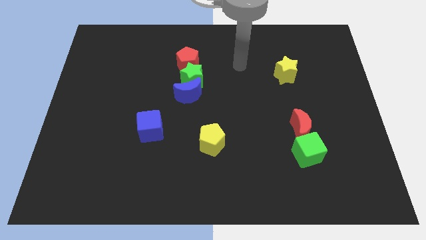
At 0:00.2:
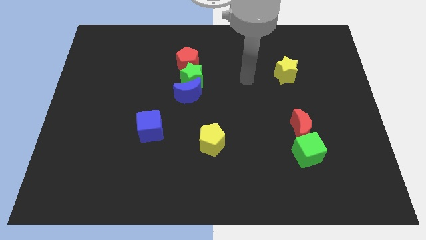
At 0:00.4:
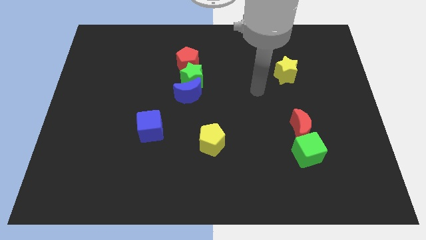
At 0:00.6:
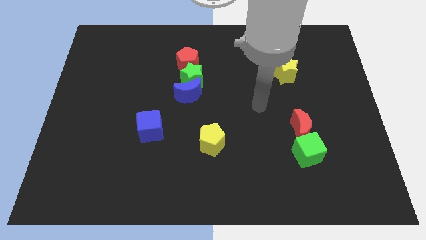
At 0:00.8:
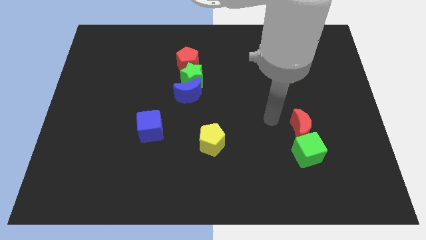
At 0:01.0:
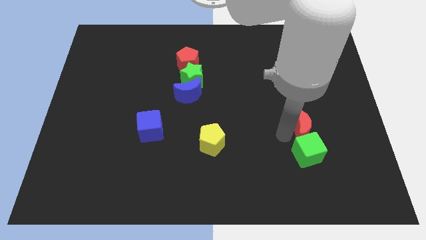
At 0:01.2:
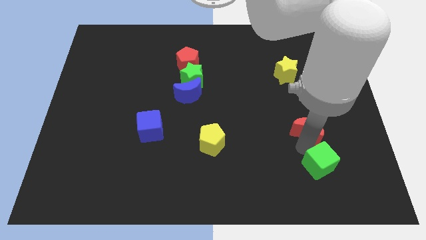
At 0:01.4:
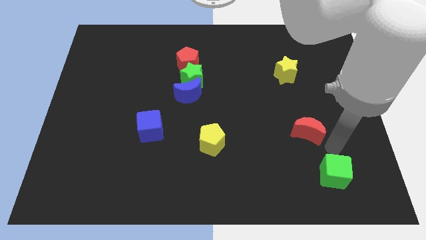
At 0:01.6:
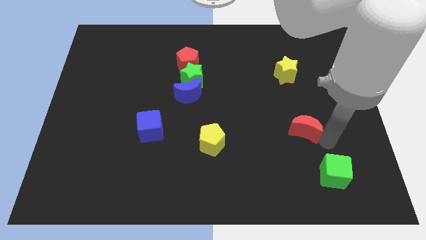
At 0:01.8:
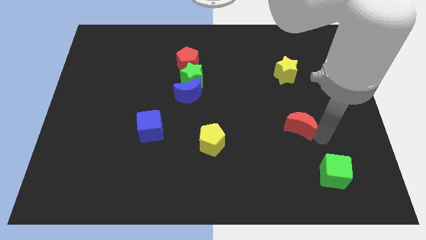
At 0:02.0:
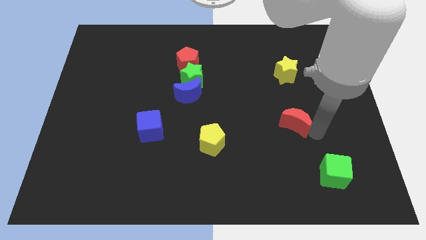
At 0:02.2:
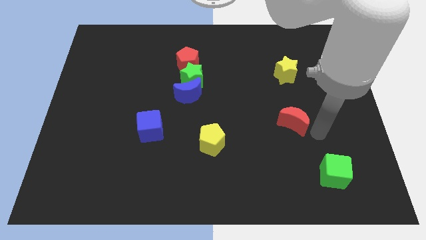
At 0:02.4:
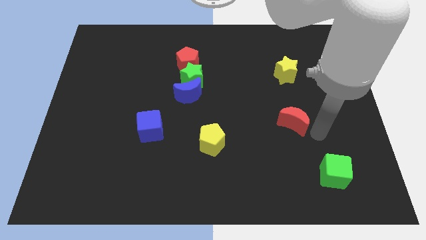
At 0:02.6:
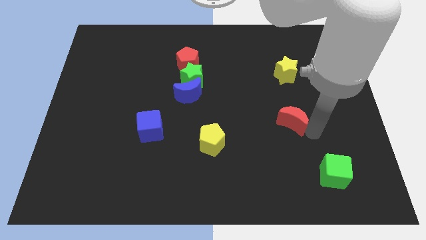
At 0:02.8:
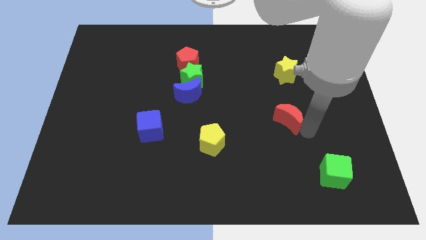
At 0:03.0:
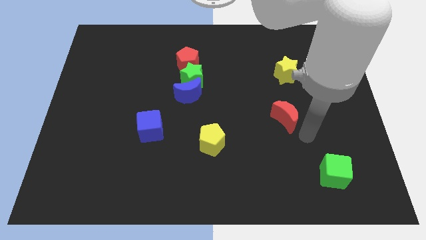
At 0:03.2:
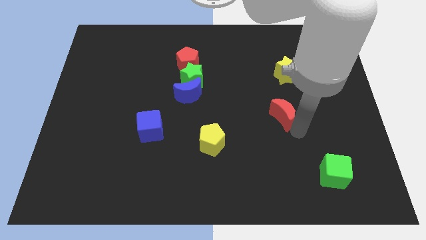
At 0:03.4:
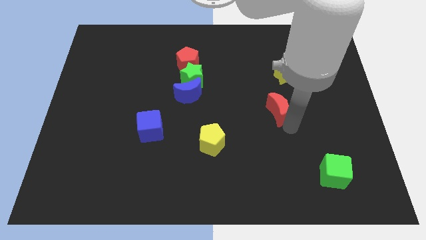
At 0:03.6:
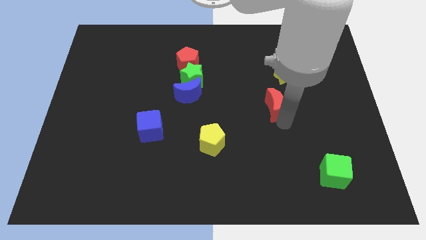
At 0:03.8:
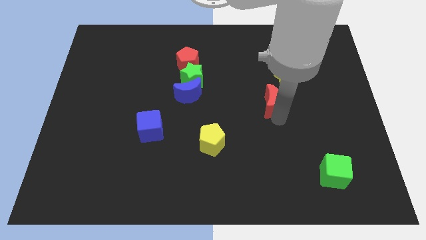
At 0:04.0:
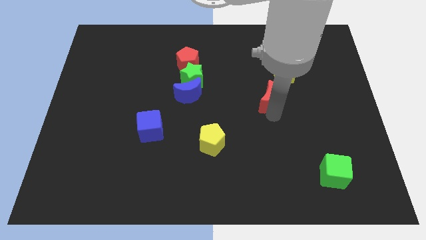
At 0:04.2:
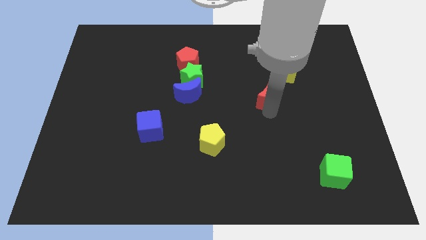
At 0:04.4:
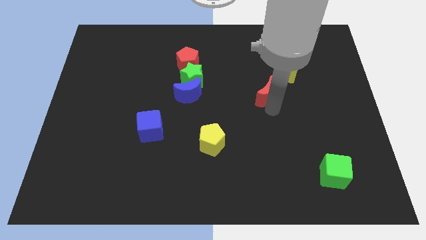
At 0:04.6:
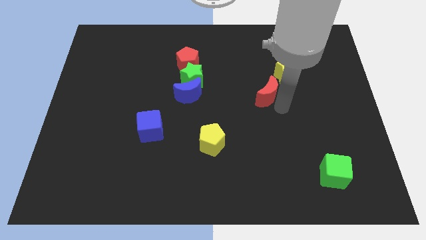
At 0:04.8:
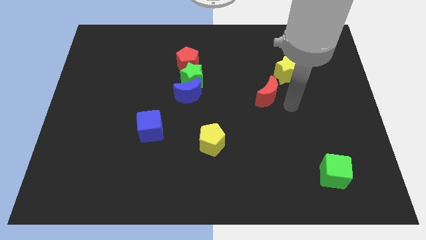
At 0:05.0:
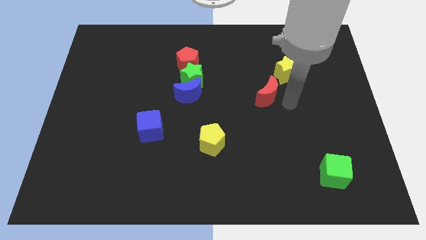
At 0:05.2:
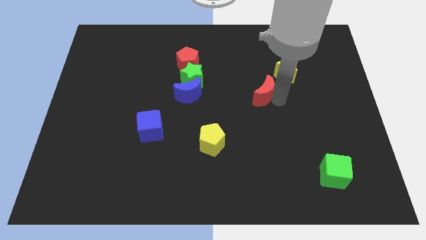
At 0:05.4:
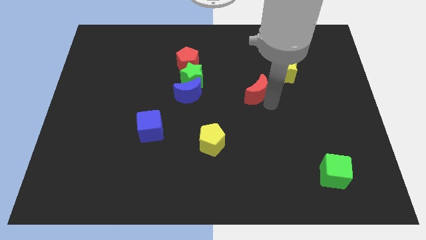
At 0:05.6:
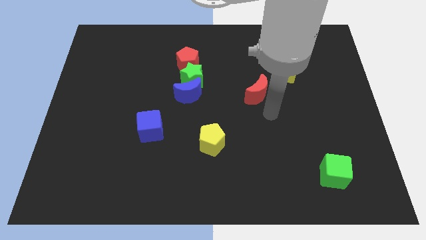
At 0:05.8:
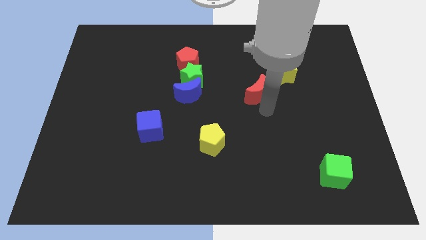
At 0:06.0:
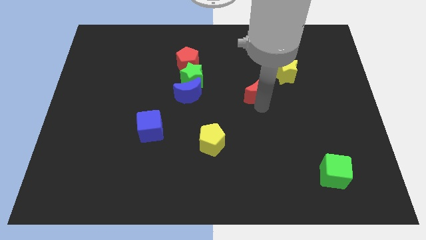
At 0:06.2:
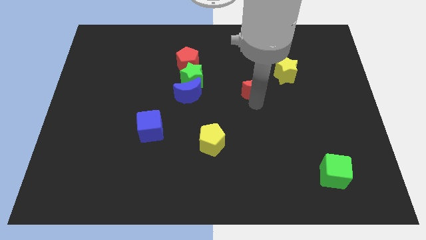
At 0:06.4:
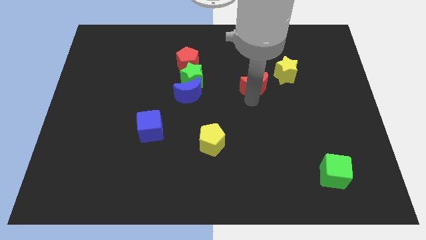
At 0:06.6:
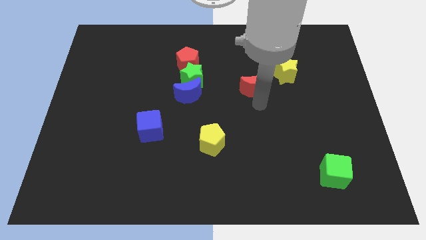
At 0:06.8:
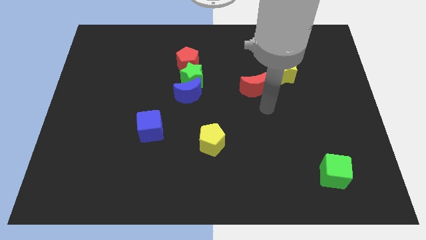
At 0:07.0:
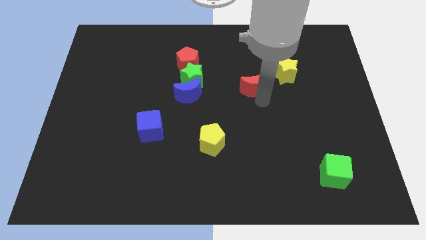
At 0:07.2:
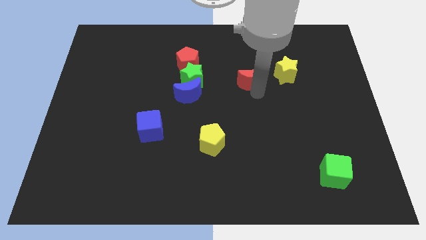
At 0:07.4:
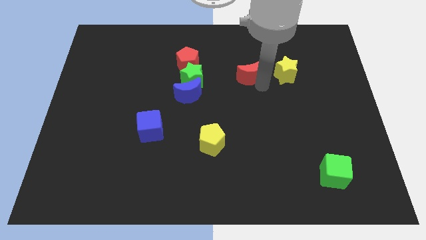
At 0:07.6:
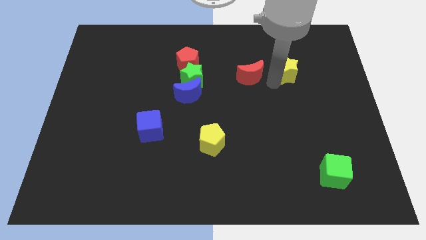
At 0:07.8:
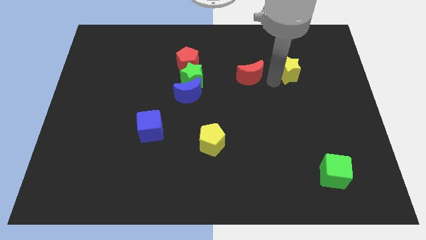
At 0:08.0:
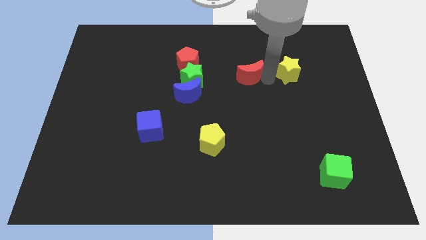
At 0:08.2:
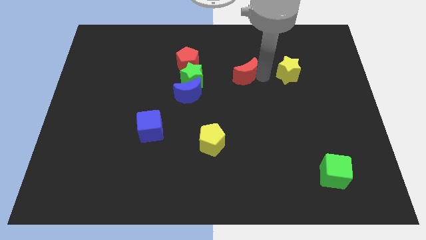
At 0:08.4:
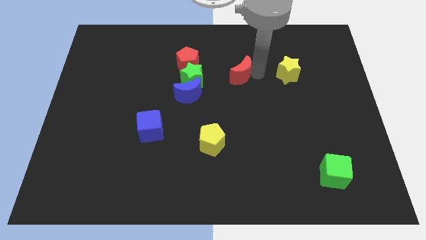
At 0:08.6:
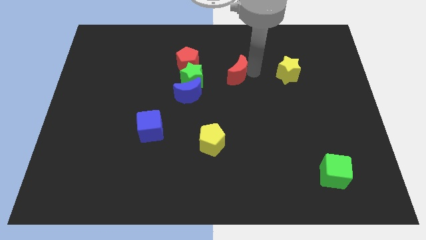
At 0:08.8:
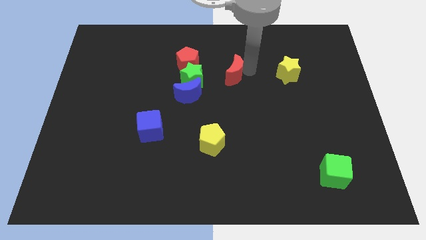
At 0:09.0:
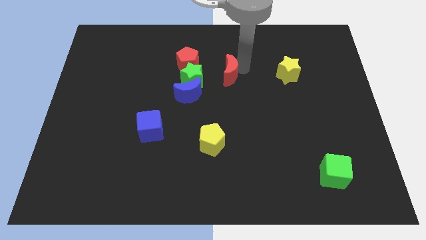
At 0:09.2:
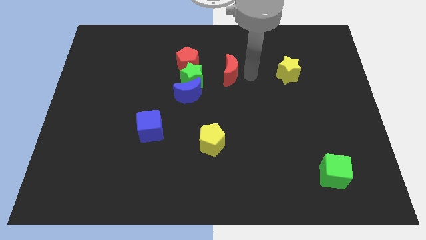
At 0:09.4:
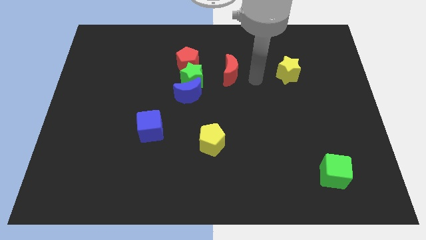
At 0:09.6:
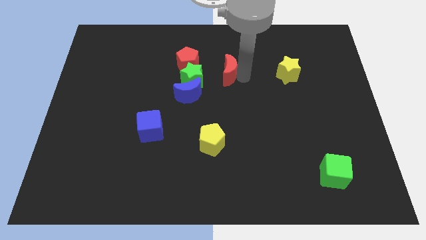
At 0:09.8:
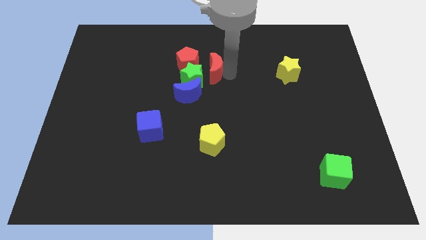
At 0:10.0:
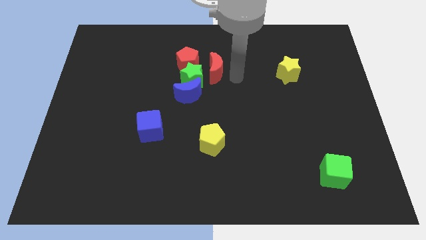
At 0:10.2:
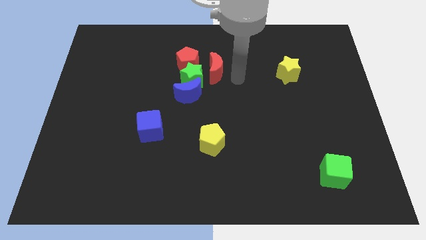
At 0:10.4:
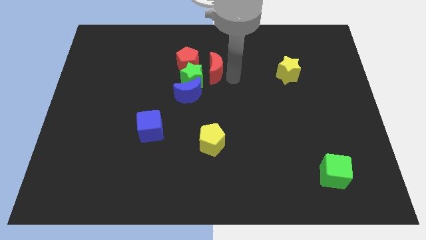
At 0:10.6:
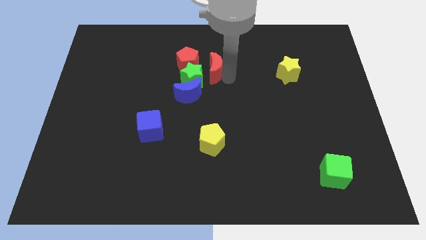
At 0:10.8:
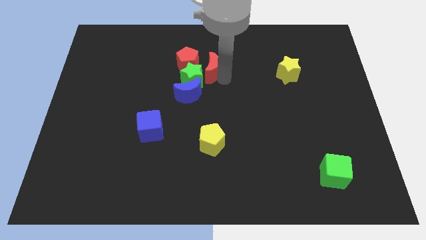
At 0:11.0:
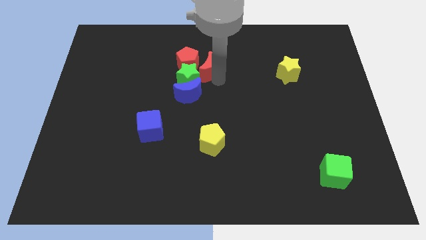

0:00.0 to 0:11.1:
move the red moon towards the red pentagon

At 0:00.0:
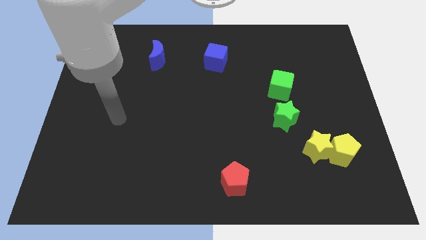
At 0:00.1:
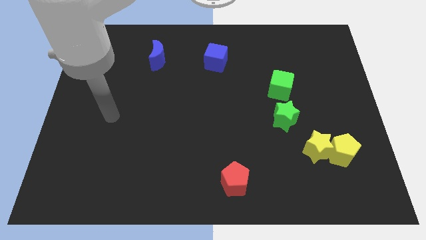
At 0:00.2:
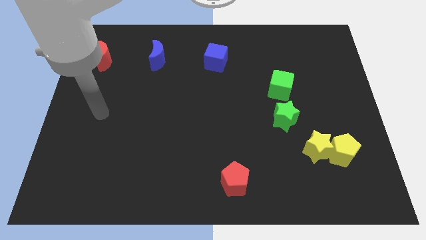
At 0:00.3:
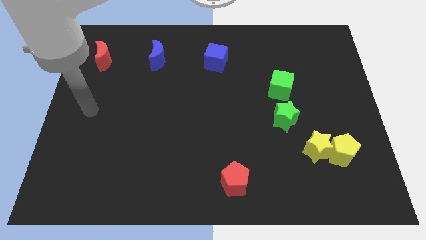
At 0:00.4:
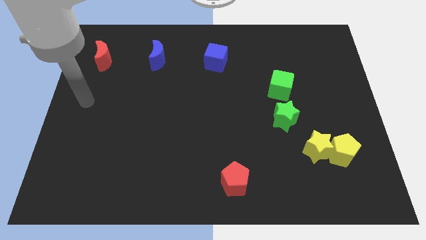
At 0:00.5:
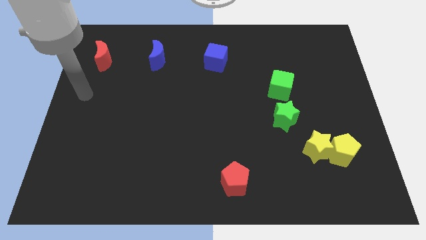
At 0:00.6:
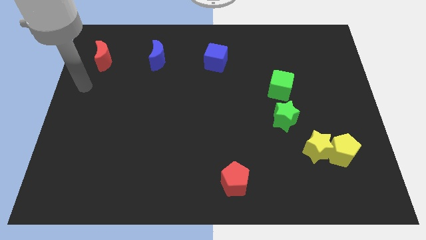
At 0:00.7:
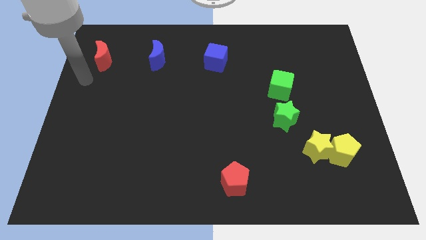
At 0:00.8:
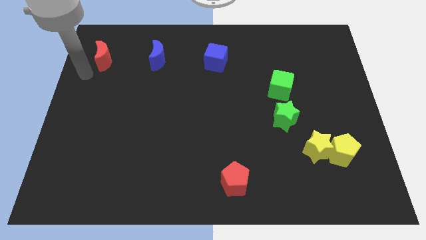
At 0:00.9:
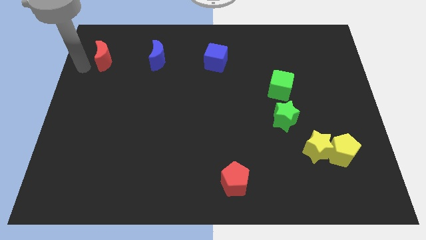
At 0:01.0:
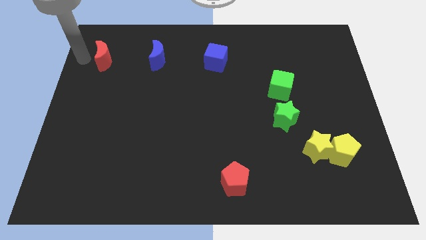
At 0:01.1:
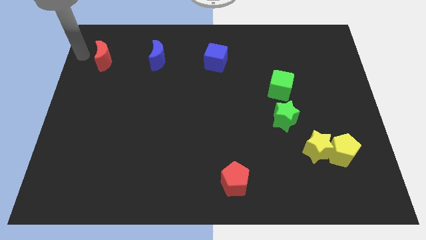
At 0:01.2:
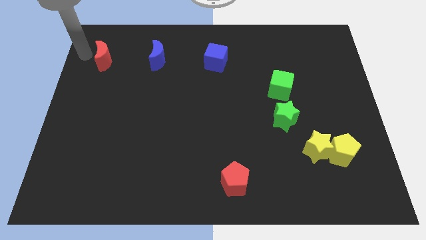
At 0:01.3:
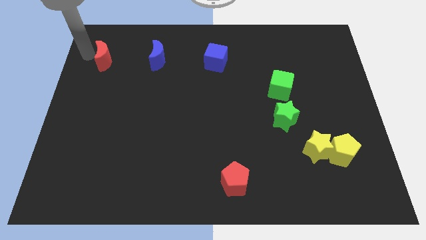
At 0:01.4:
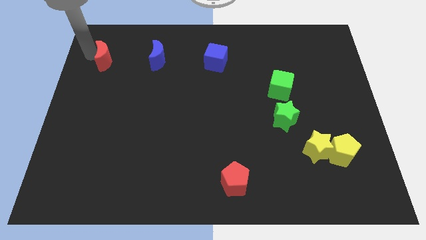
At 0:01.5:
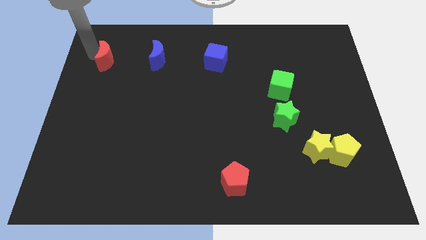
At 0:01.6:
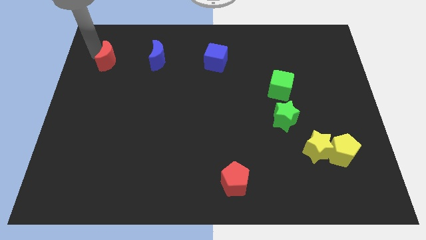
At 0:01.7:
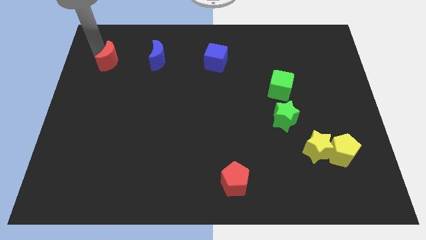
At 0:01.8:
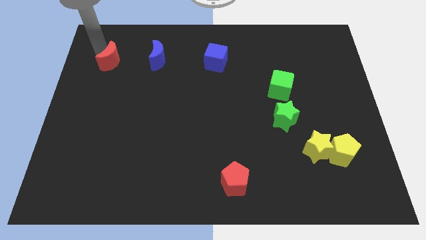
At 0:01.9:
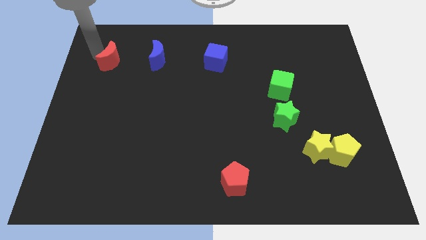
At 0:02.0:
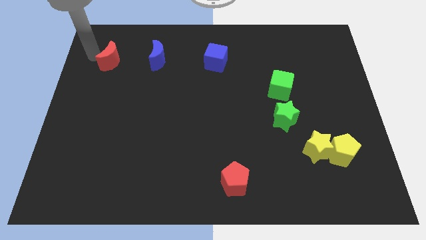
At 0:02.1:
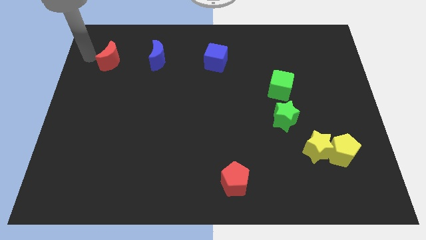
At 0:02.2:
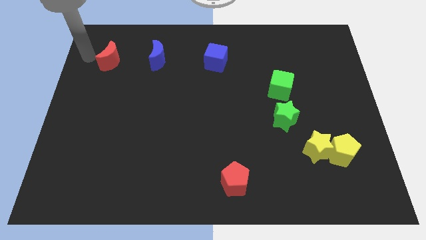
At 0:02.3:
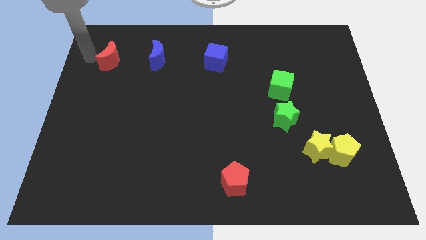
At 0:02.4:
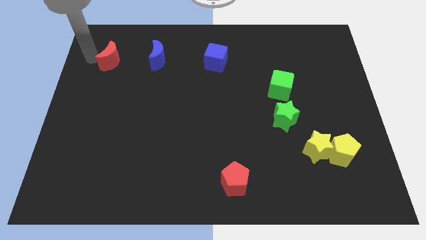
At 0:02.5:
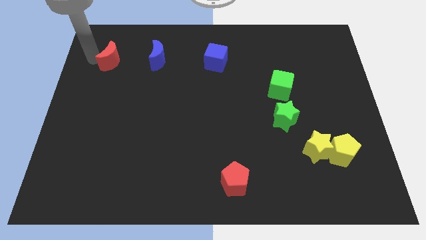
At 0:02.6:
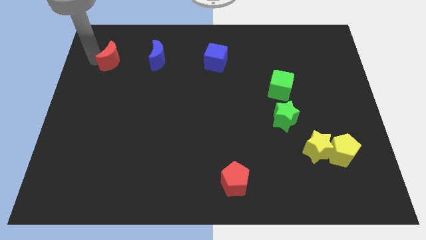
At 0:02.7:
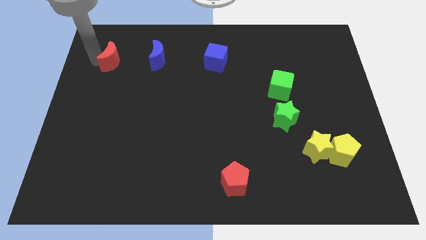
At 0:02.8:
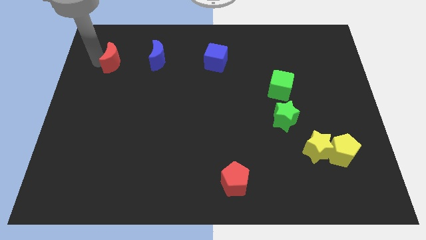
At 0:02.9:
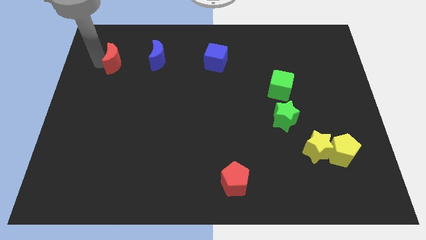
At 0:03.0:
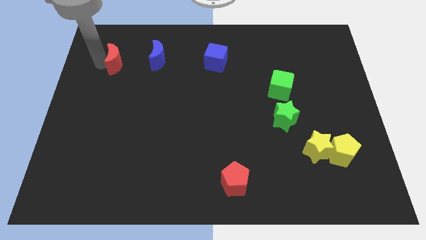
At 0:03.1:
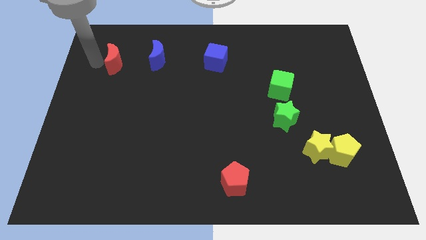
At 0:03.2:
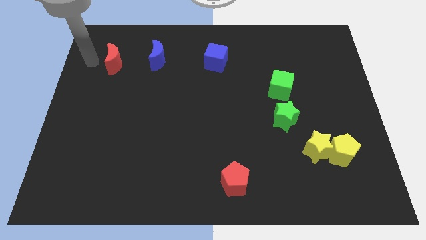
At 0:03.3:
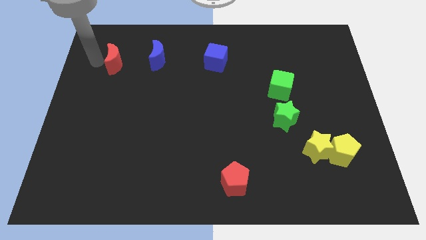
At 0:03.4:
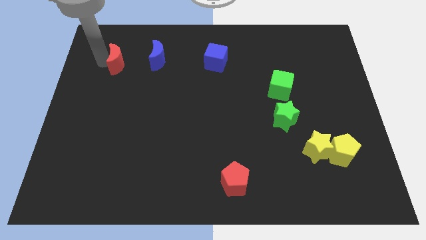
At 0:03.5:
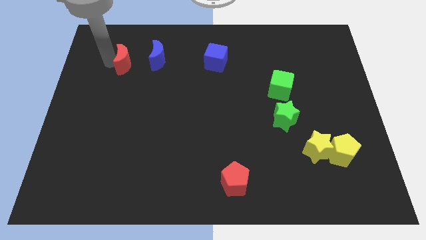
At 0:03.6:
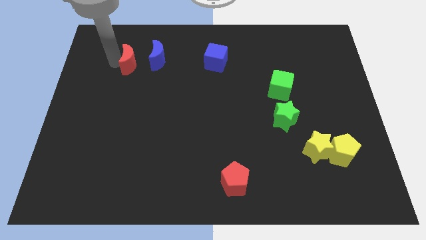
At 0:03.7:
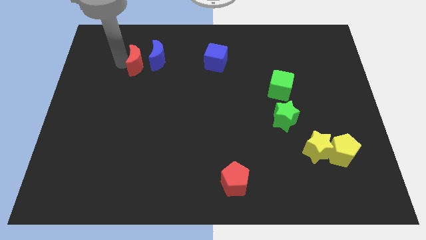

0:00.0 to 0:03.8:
move the red moon to the blue moon
